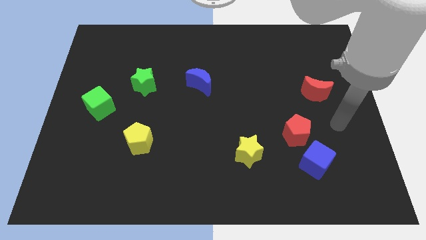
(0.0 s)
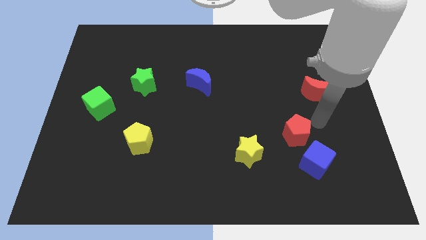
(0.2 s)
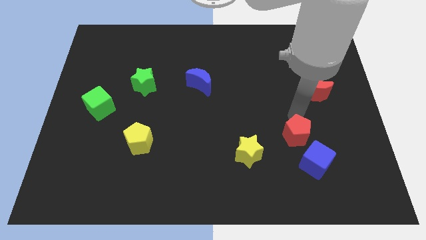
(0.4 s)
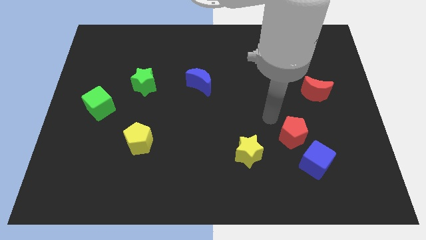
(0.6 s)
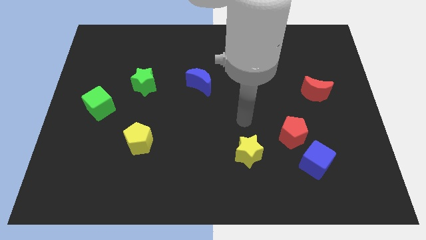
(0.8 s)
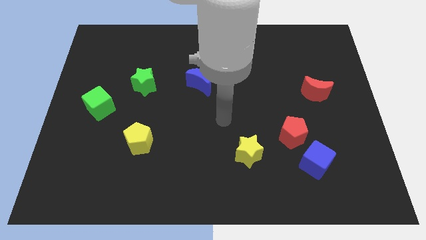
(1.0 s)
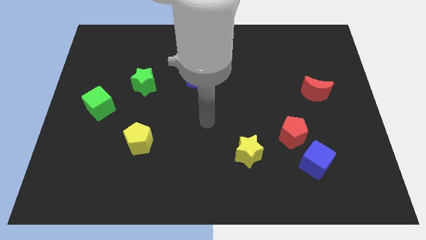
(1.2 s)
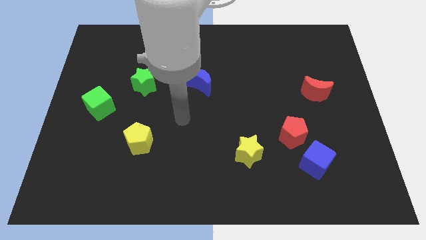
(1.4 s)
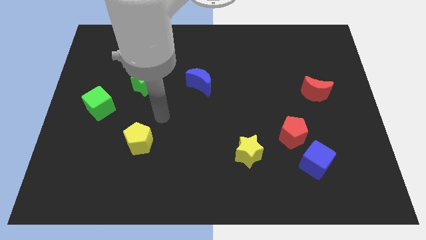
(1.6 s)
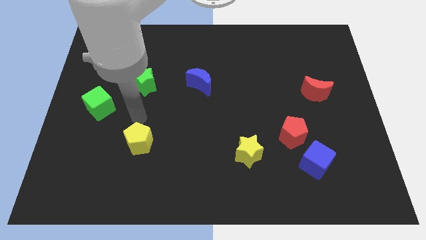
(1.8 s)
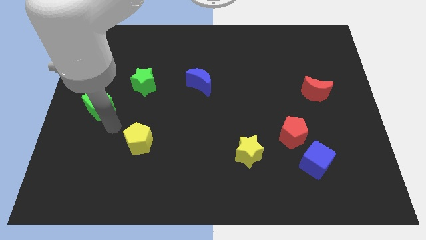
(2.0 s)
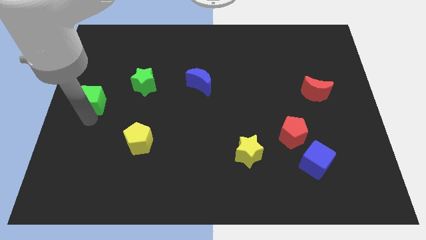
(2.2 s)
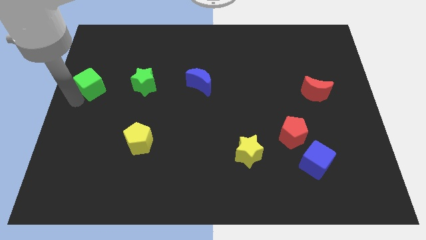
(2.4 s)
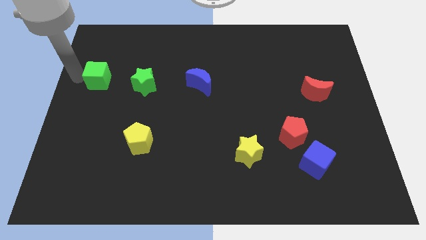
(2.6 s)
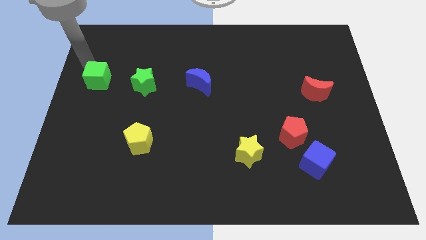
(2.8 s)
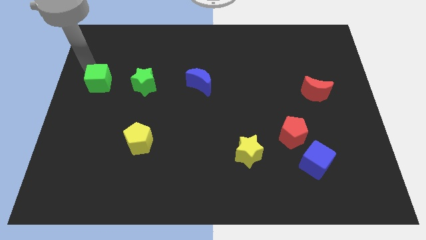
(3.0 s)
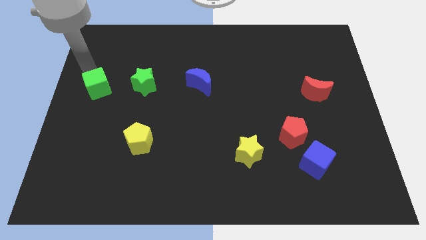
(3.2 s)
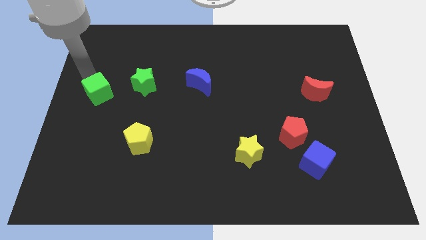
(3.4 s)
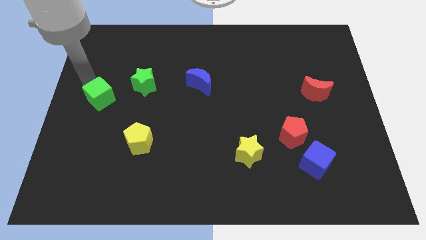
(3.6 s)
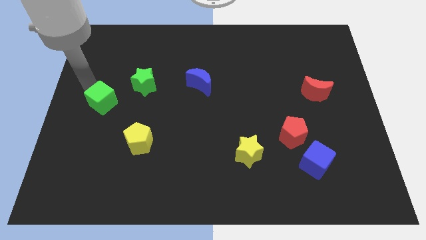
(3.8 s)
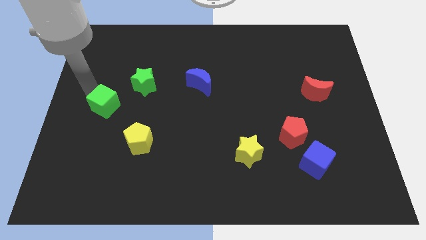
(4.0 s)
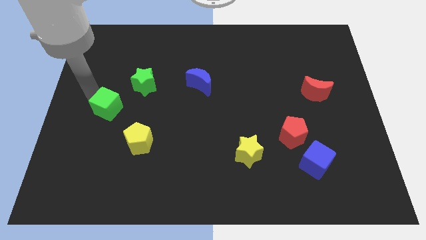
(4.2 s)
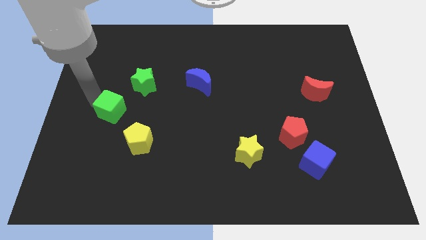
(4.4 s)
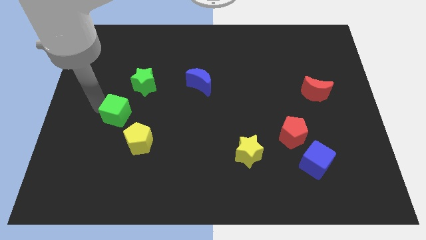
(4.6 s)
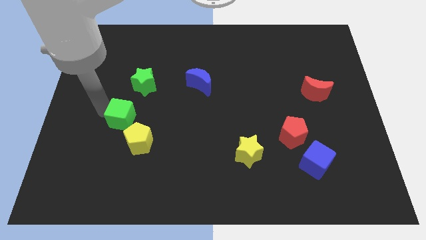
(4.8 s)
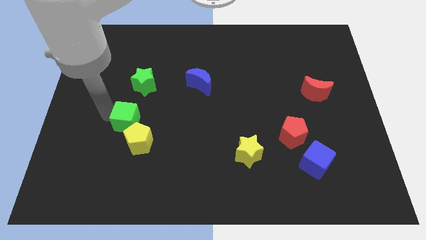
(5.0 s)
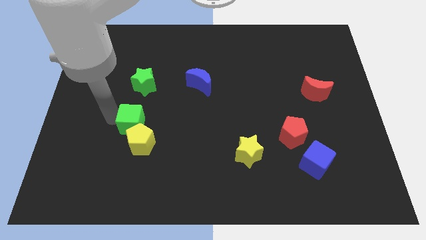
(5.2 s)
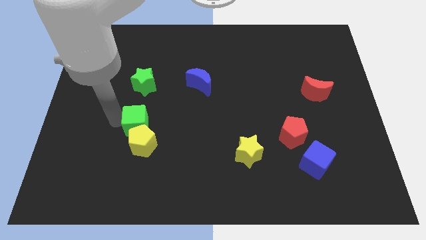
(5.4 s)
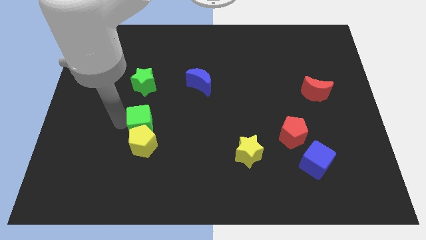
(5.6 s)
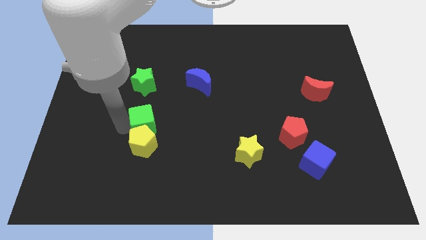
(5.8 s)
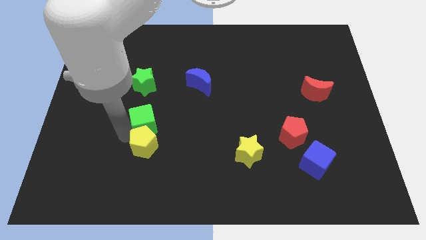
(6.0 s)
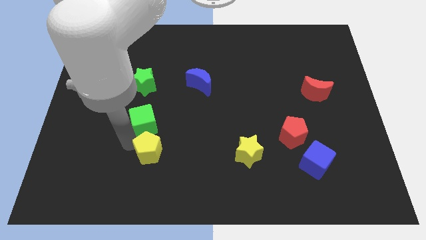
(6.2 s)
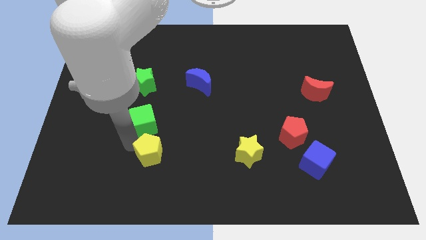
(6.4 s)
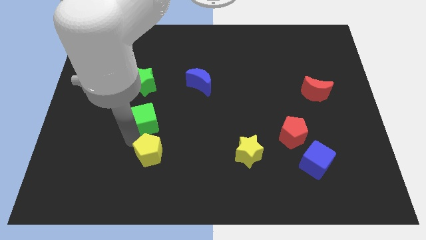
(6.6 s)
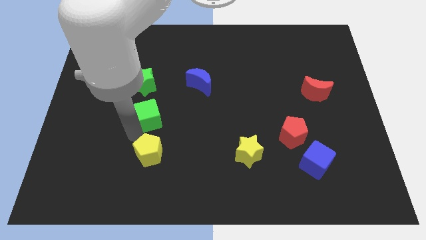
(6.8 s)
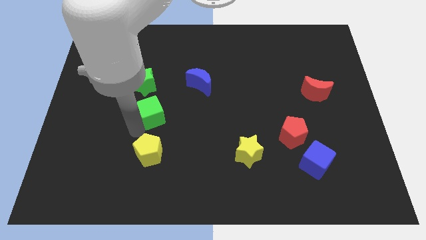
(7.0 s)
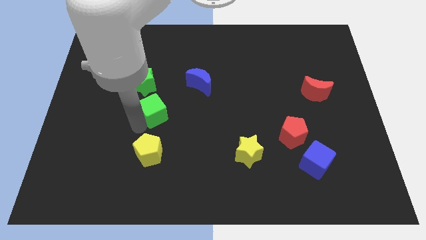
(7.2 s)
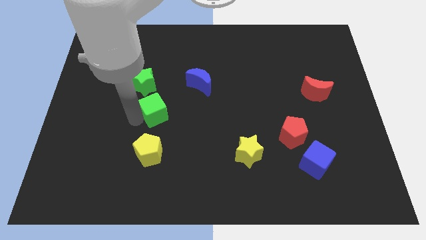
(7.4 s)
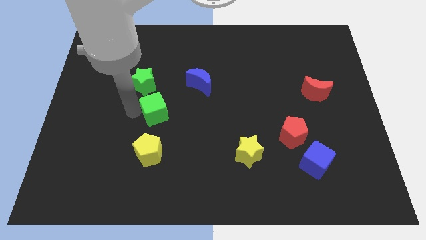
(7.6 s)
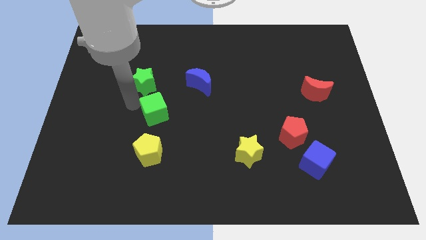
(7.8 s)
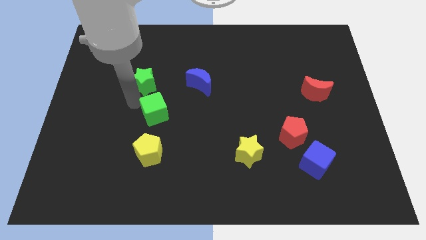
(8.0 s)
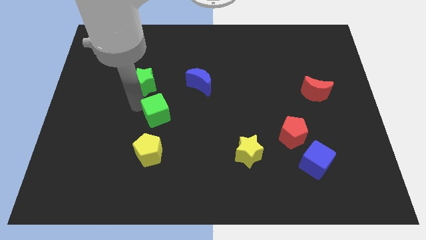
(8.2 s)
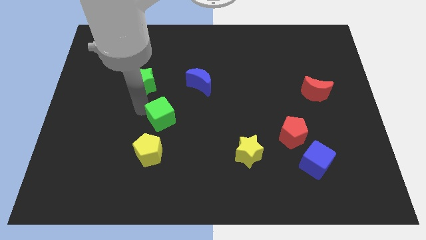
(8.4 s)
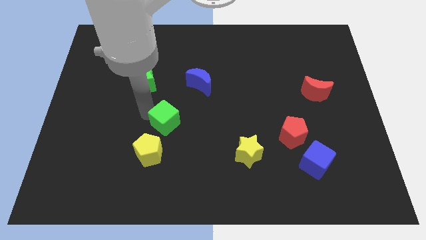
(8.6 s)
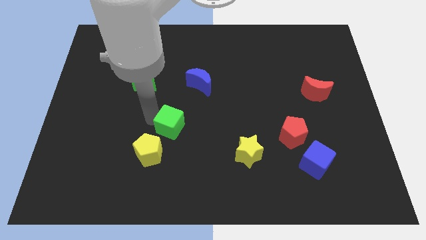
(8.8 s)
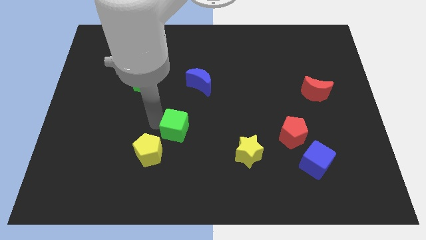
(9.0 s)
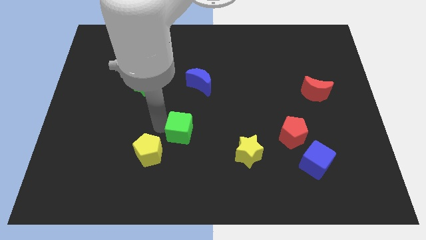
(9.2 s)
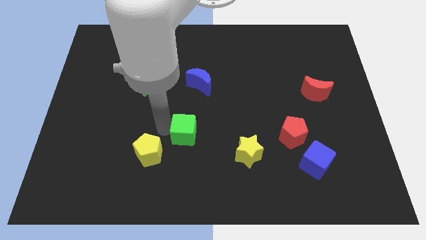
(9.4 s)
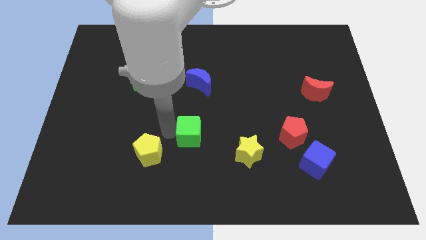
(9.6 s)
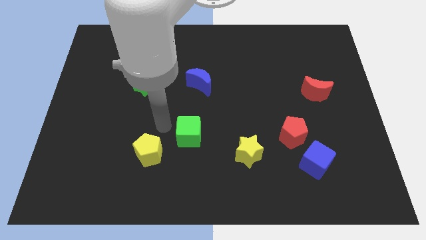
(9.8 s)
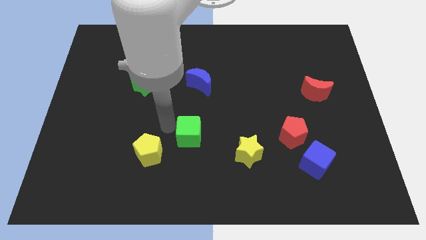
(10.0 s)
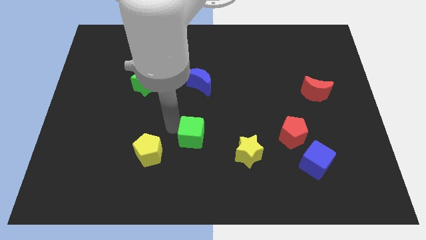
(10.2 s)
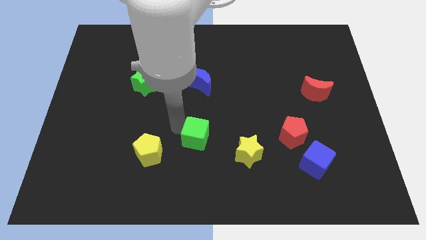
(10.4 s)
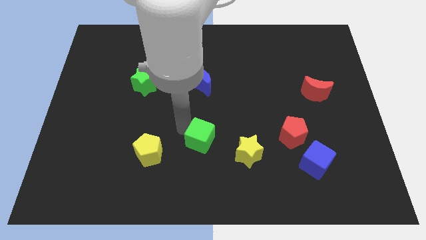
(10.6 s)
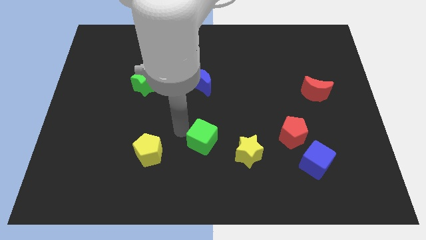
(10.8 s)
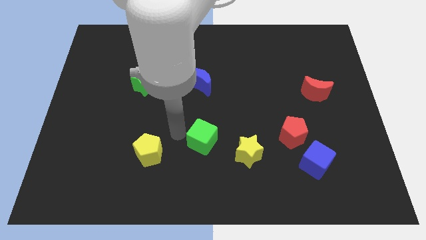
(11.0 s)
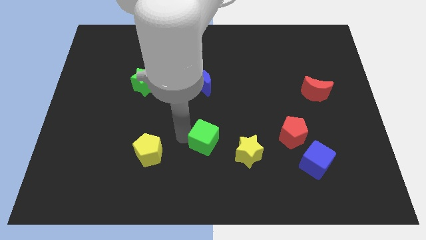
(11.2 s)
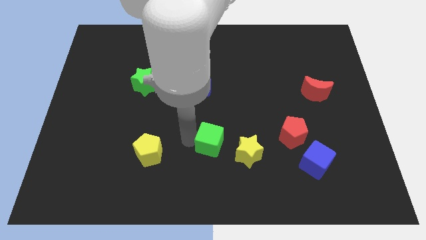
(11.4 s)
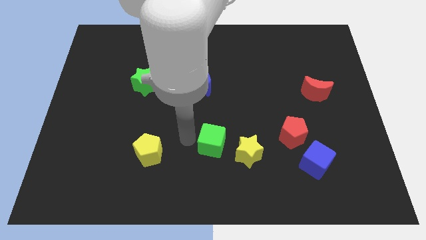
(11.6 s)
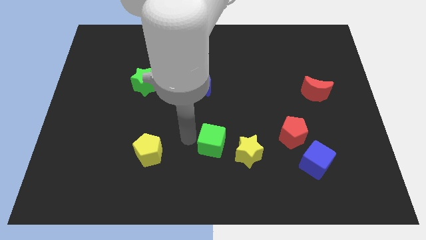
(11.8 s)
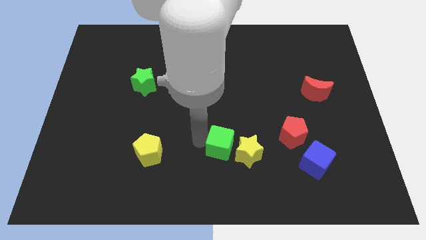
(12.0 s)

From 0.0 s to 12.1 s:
put the green cube next to the yellow star
